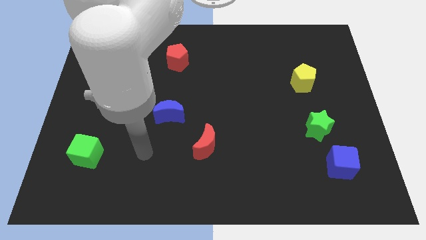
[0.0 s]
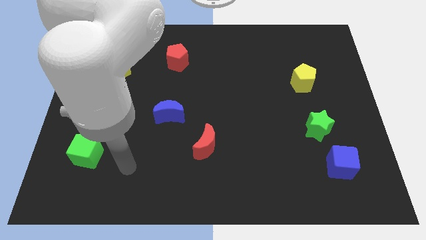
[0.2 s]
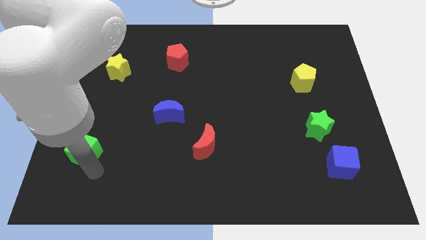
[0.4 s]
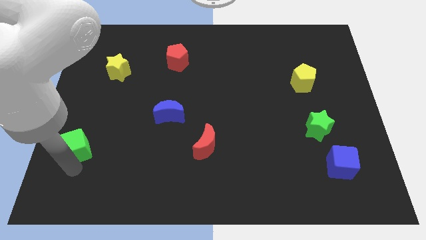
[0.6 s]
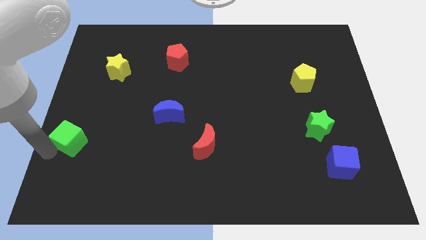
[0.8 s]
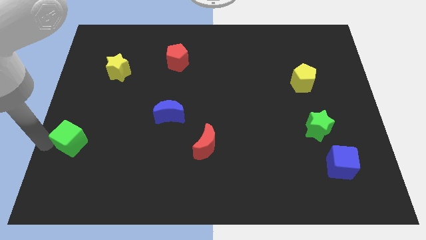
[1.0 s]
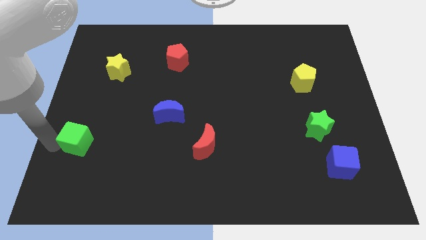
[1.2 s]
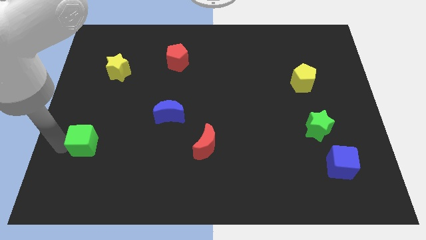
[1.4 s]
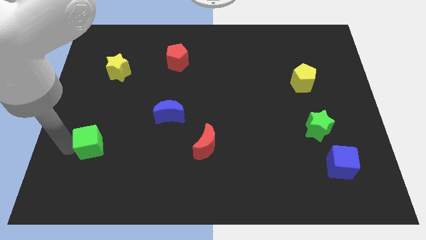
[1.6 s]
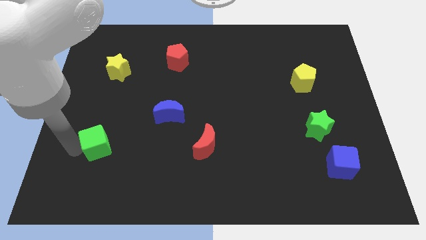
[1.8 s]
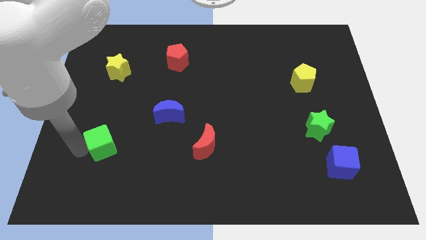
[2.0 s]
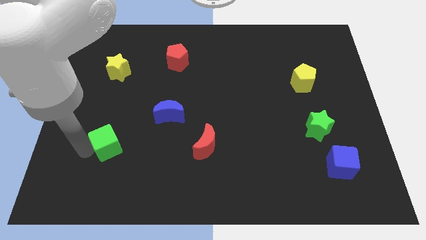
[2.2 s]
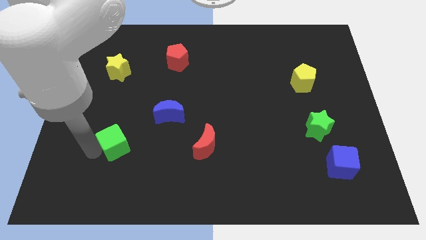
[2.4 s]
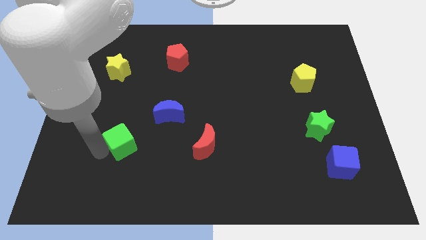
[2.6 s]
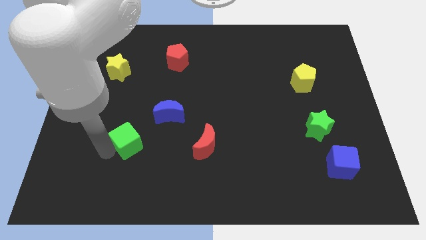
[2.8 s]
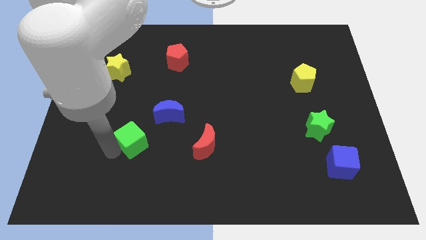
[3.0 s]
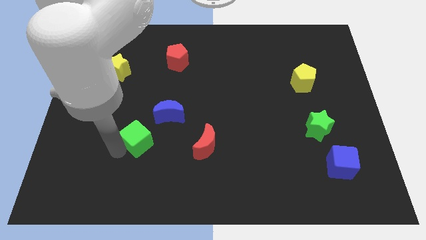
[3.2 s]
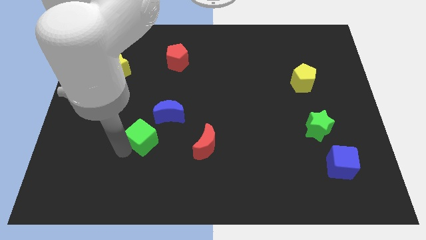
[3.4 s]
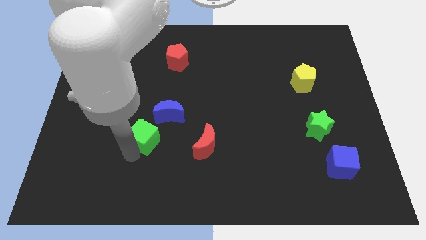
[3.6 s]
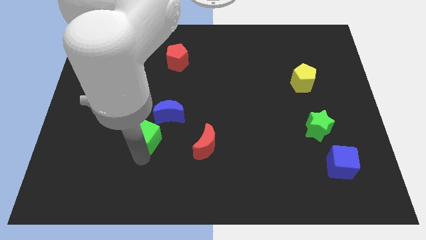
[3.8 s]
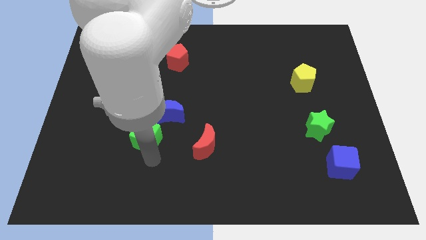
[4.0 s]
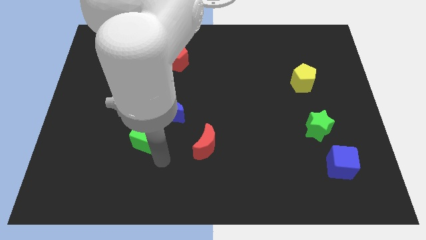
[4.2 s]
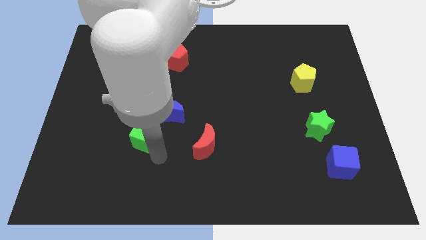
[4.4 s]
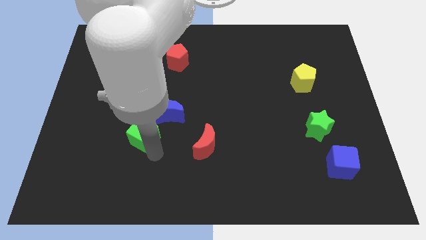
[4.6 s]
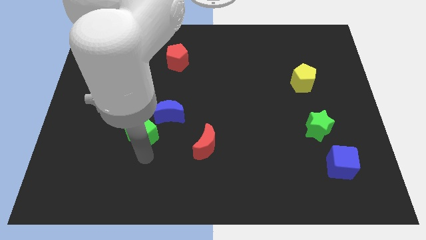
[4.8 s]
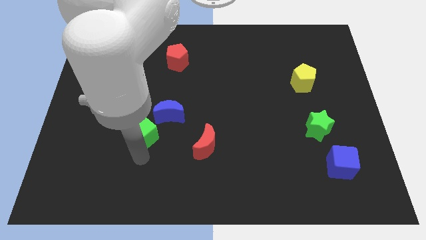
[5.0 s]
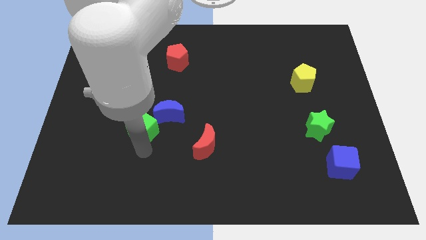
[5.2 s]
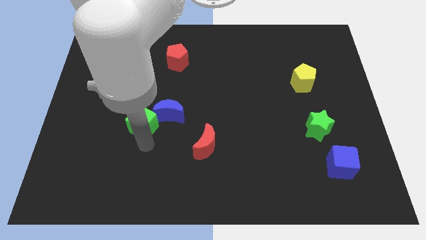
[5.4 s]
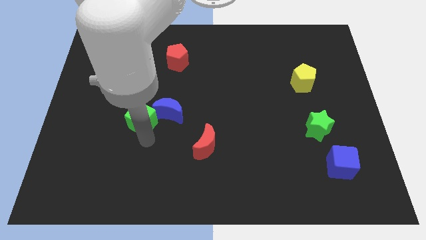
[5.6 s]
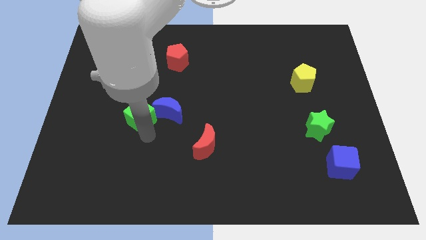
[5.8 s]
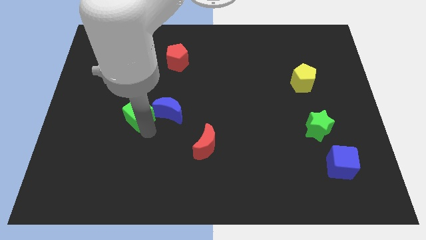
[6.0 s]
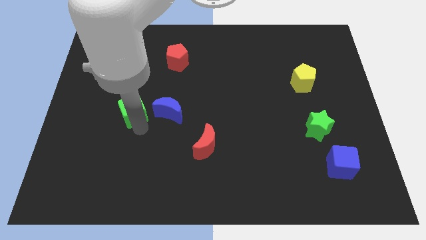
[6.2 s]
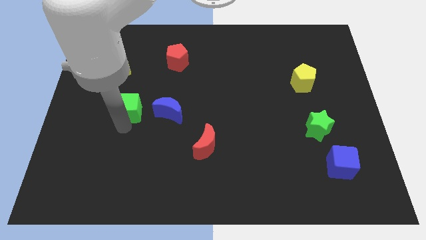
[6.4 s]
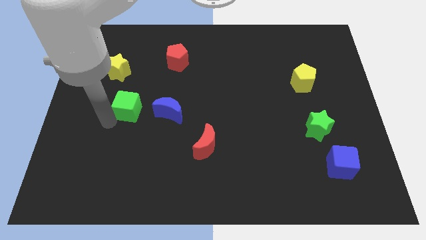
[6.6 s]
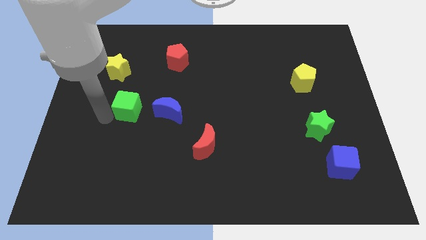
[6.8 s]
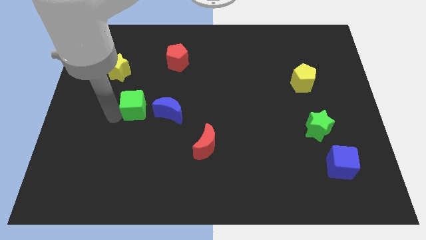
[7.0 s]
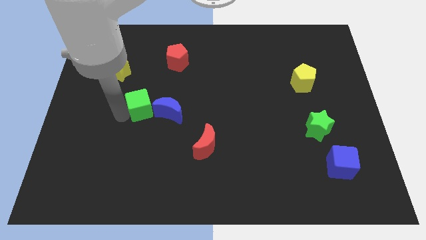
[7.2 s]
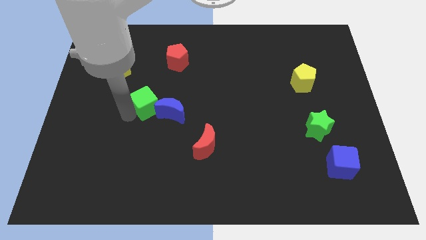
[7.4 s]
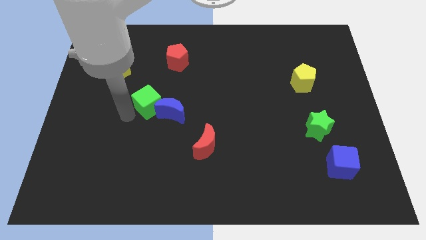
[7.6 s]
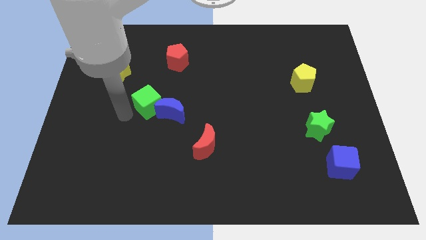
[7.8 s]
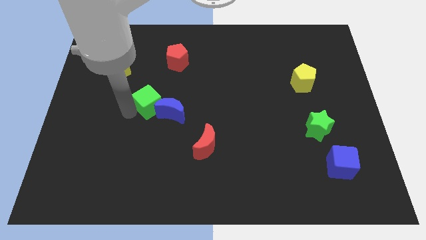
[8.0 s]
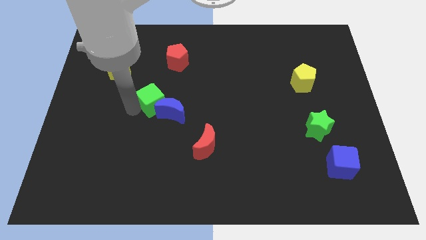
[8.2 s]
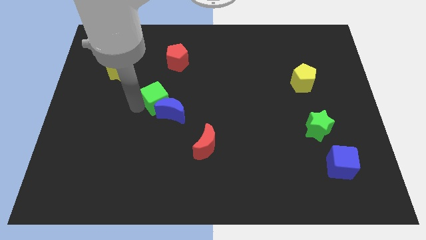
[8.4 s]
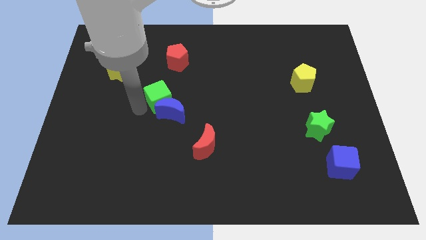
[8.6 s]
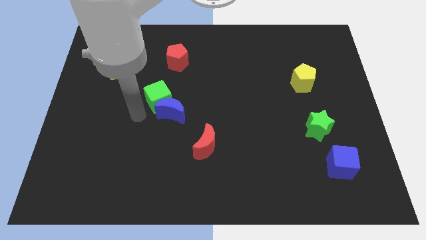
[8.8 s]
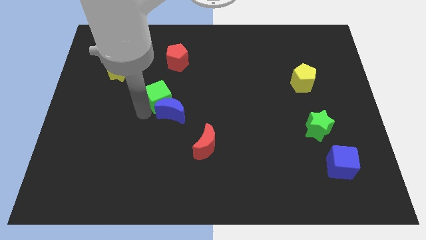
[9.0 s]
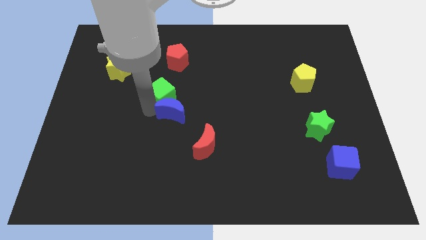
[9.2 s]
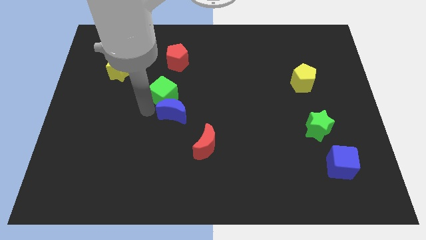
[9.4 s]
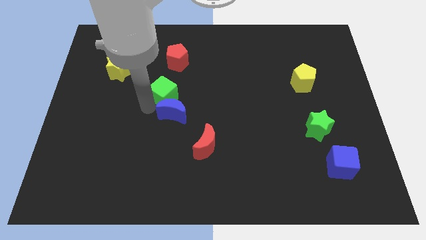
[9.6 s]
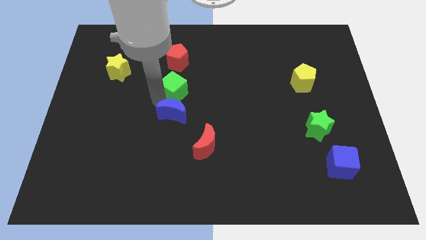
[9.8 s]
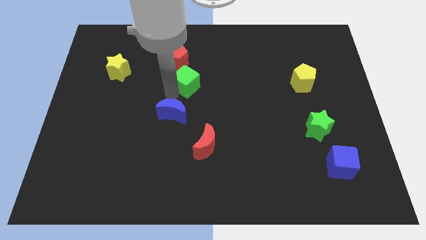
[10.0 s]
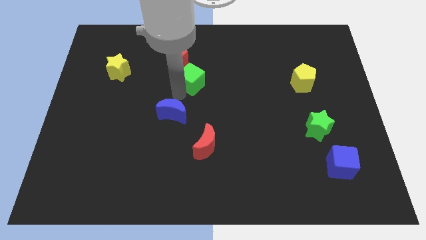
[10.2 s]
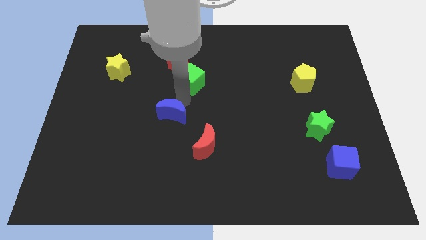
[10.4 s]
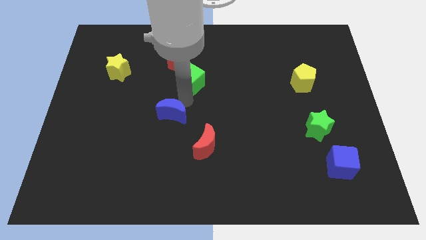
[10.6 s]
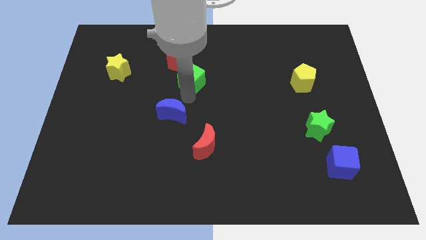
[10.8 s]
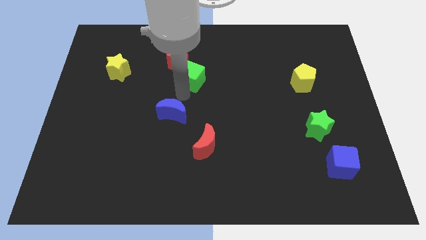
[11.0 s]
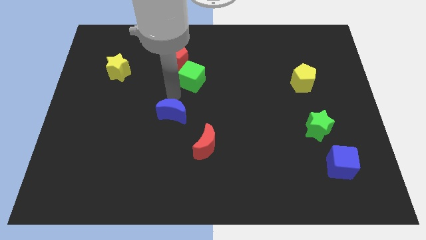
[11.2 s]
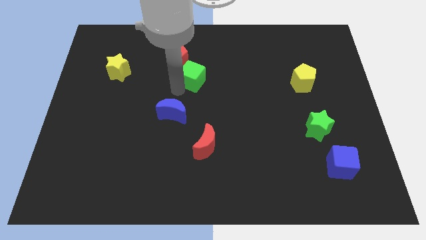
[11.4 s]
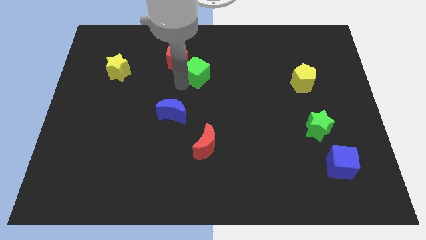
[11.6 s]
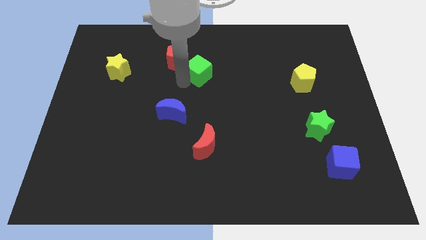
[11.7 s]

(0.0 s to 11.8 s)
slide the green cube right of the red pentagon

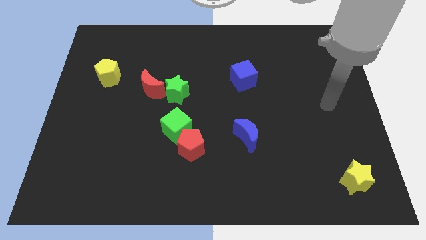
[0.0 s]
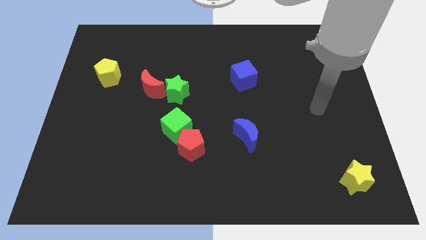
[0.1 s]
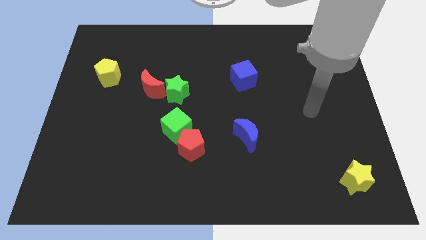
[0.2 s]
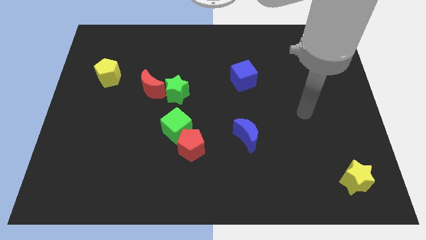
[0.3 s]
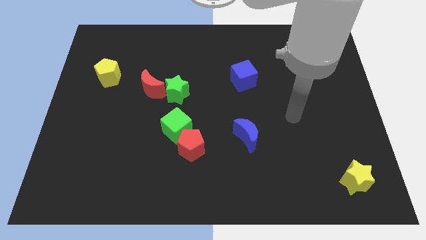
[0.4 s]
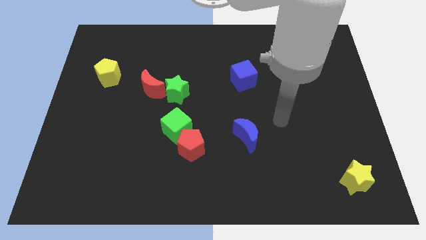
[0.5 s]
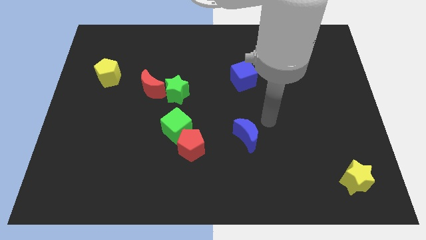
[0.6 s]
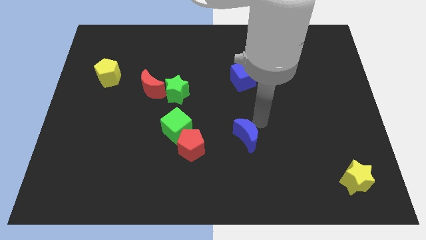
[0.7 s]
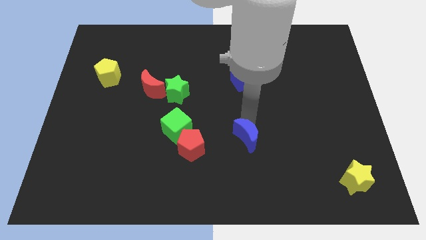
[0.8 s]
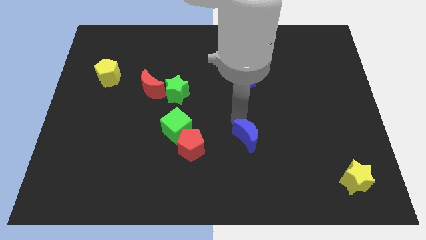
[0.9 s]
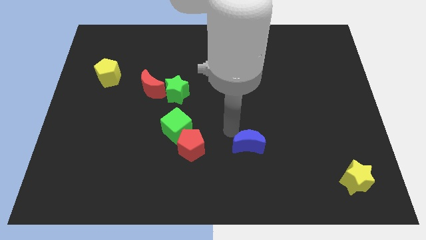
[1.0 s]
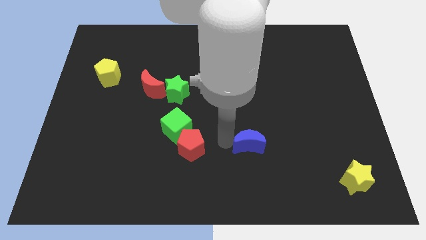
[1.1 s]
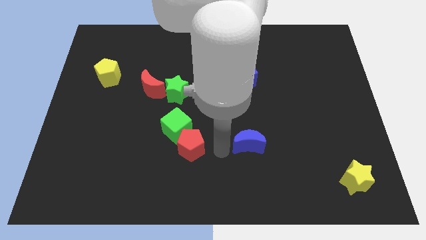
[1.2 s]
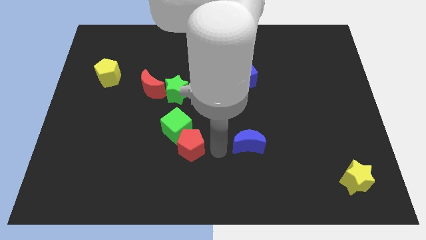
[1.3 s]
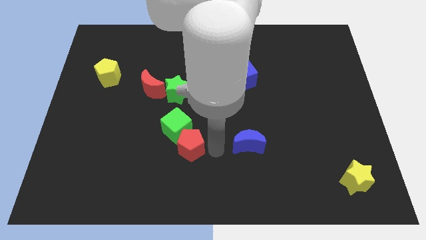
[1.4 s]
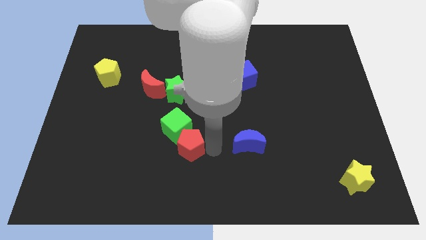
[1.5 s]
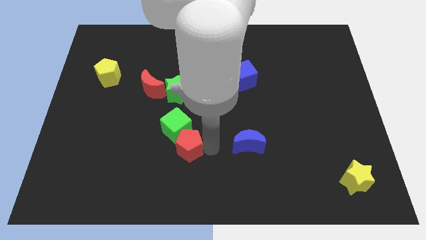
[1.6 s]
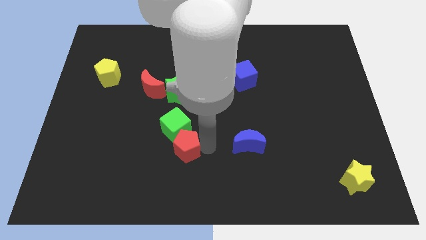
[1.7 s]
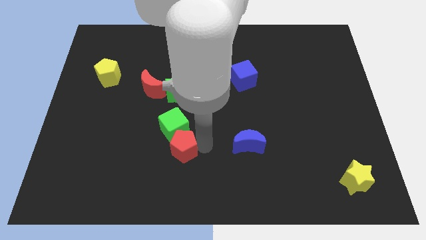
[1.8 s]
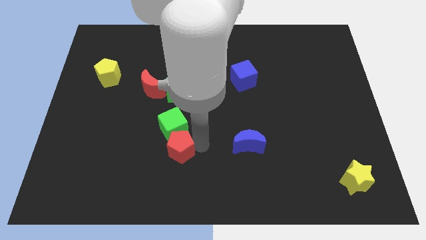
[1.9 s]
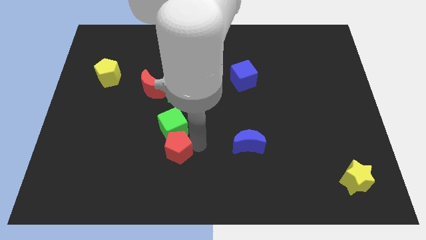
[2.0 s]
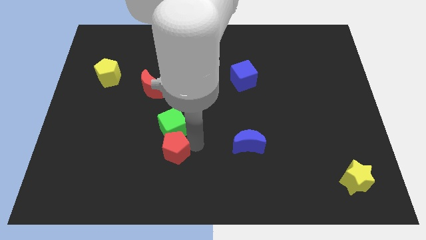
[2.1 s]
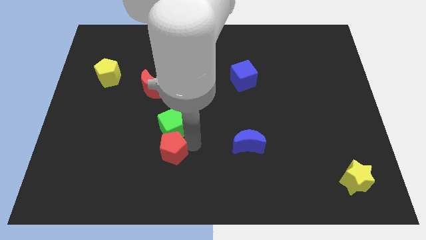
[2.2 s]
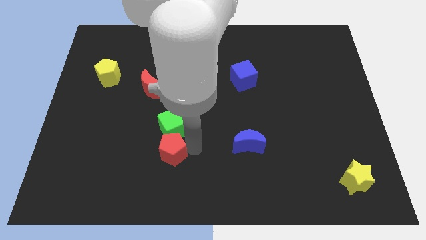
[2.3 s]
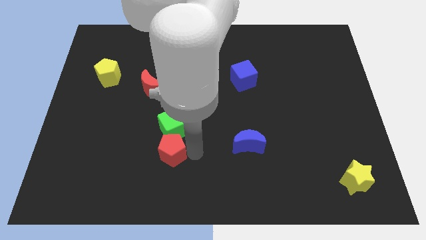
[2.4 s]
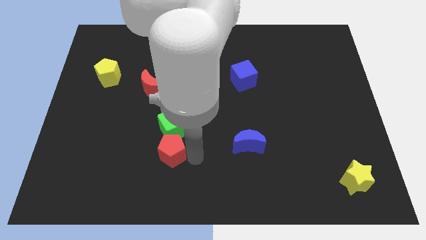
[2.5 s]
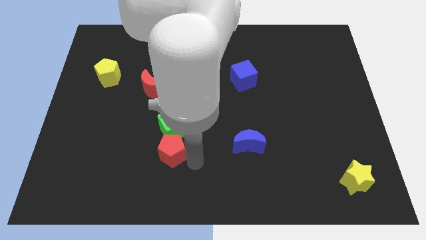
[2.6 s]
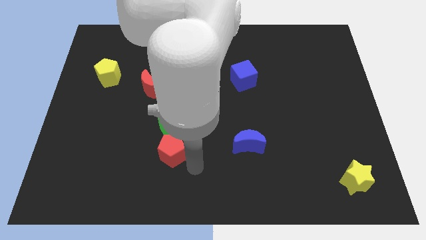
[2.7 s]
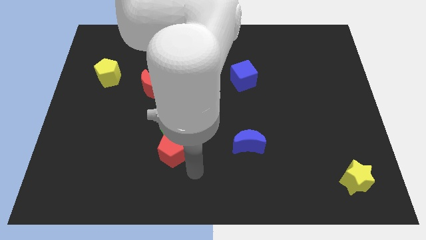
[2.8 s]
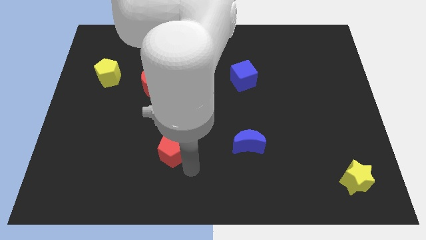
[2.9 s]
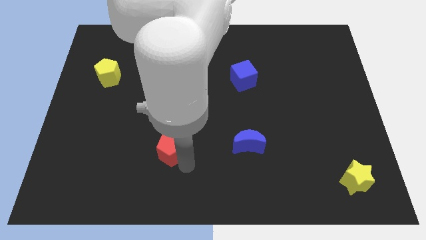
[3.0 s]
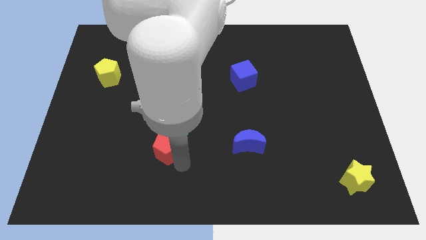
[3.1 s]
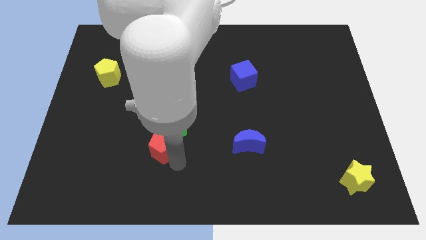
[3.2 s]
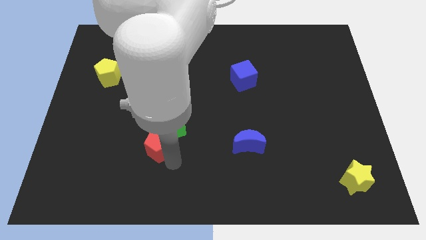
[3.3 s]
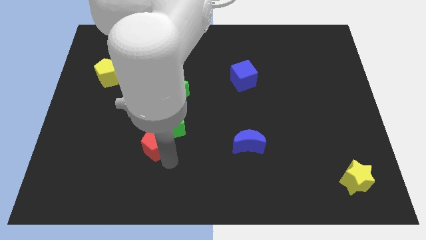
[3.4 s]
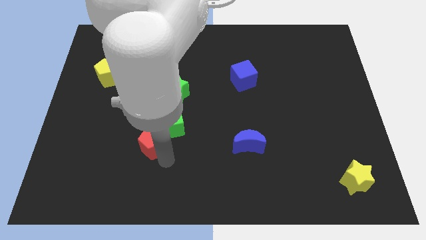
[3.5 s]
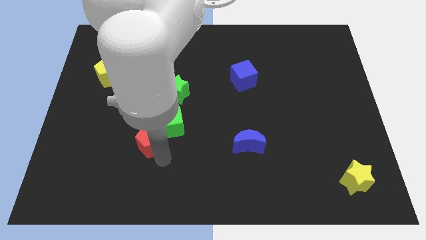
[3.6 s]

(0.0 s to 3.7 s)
put the red pentagon to the bottom of the red moon
